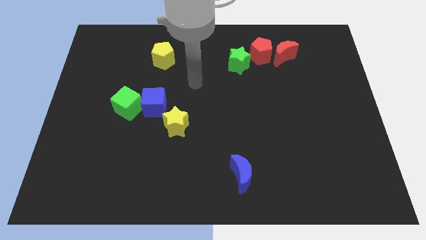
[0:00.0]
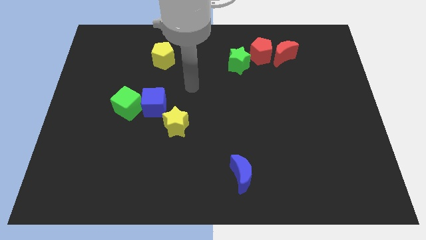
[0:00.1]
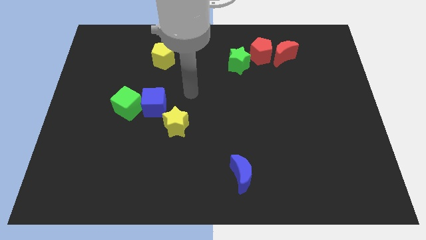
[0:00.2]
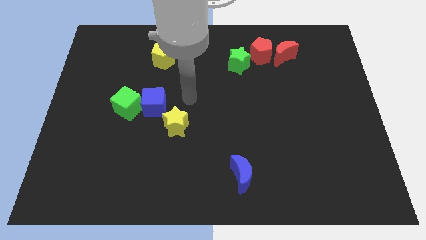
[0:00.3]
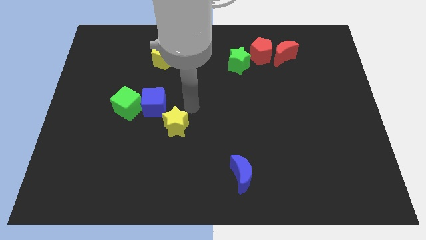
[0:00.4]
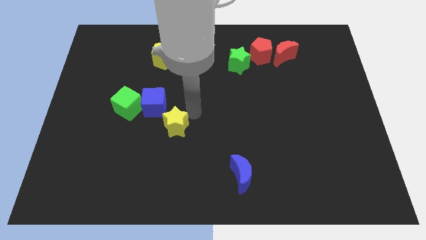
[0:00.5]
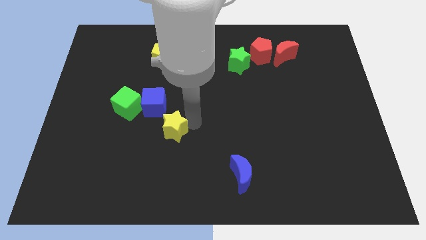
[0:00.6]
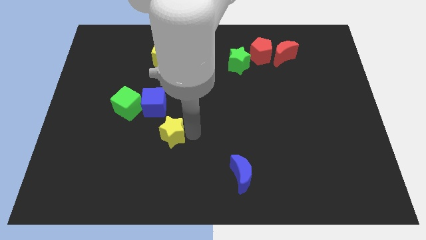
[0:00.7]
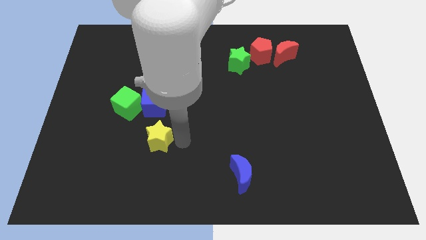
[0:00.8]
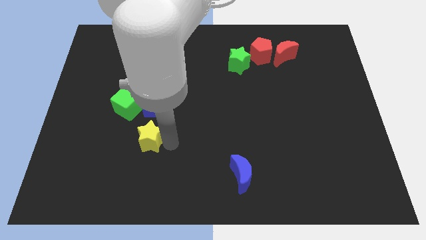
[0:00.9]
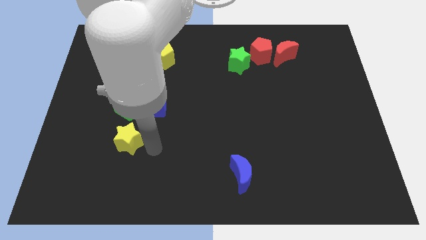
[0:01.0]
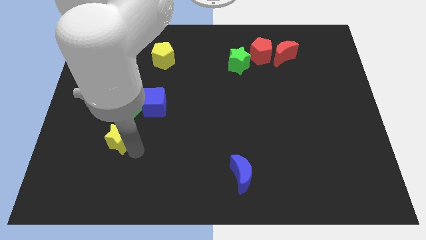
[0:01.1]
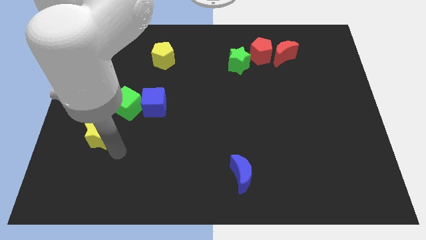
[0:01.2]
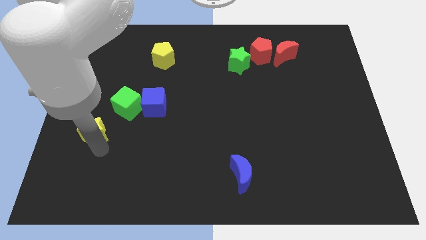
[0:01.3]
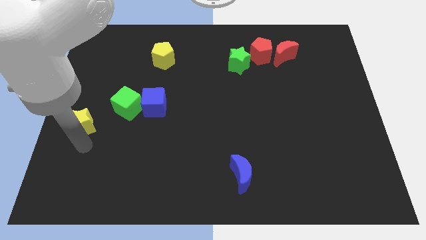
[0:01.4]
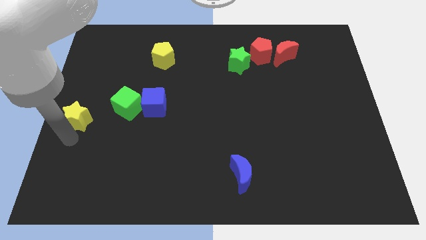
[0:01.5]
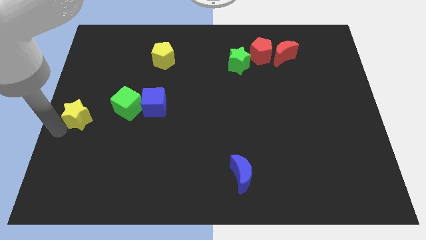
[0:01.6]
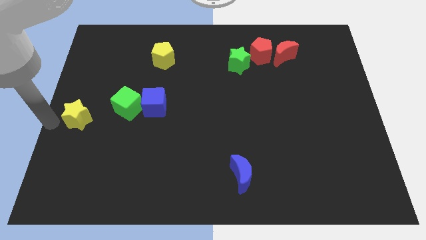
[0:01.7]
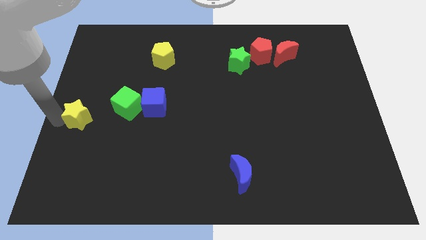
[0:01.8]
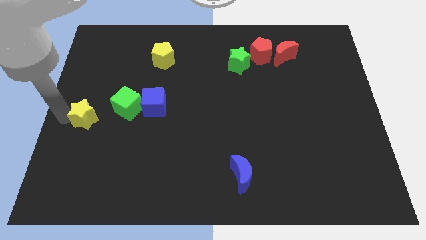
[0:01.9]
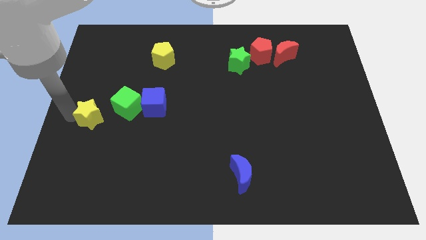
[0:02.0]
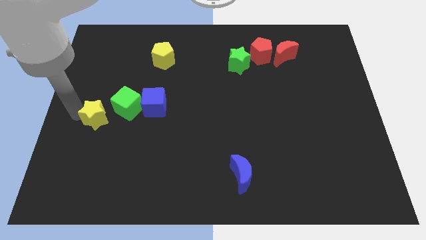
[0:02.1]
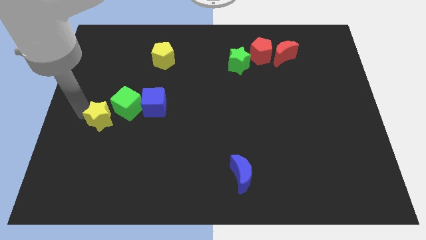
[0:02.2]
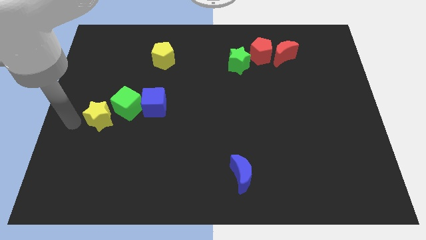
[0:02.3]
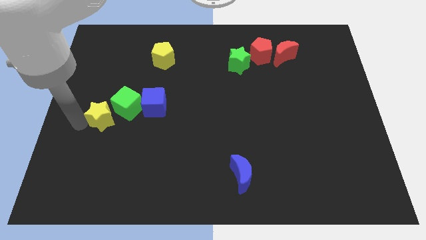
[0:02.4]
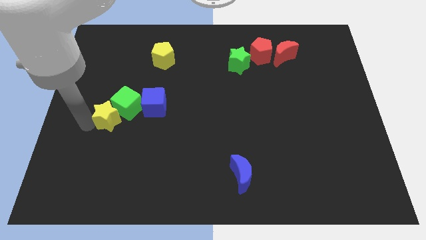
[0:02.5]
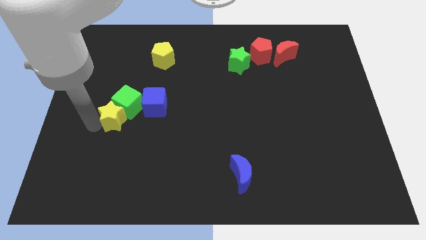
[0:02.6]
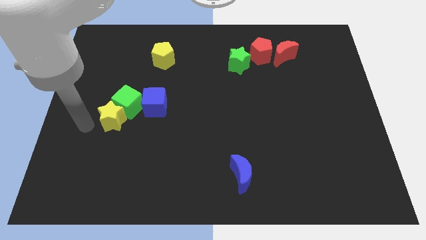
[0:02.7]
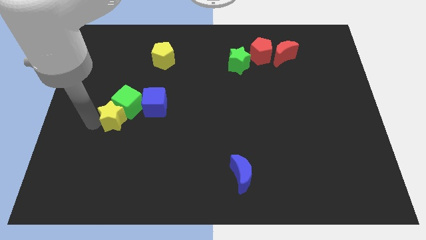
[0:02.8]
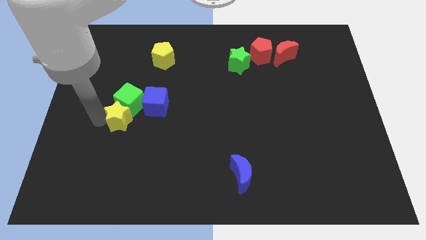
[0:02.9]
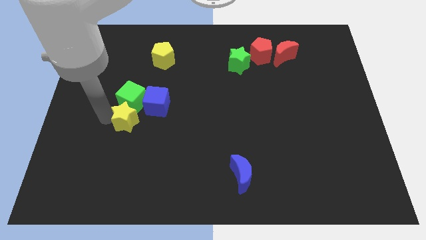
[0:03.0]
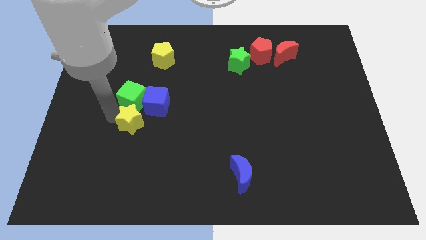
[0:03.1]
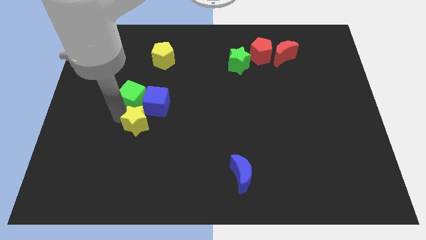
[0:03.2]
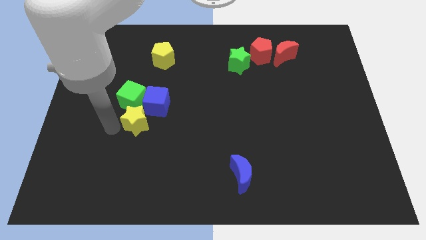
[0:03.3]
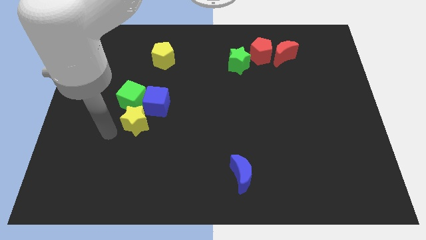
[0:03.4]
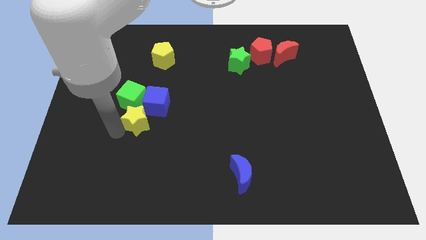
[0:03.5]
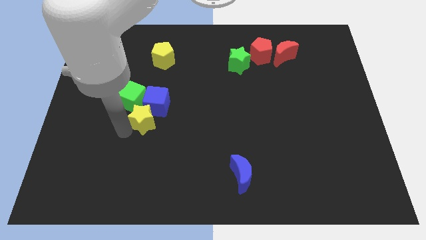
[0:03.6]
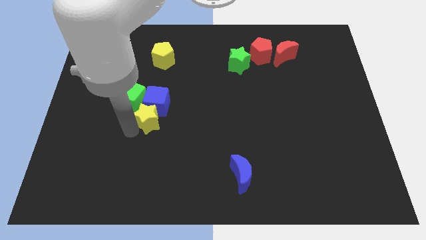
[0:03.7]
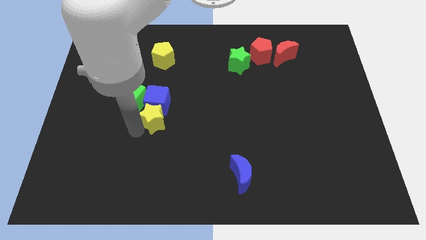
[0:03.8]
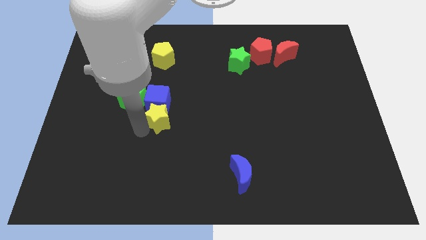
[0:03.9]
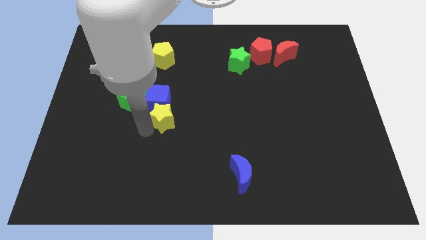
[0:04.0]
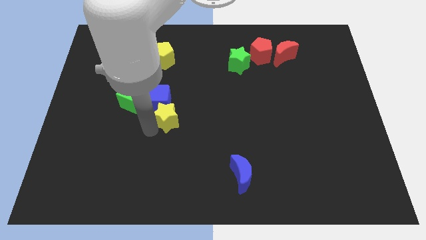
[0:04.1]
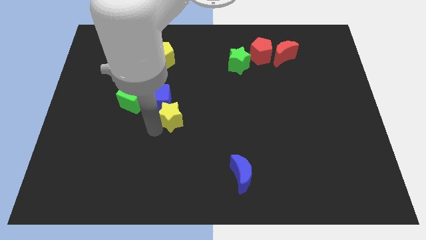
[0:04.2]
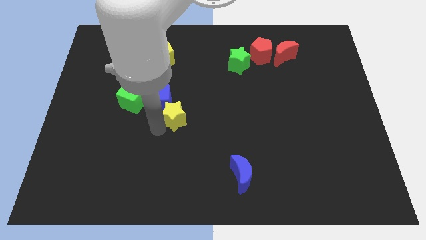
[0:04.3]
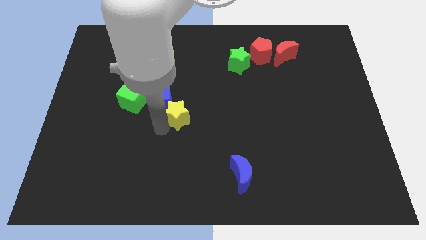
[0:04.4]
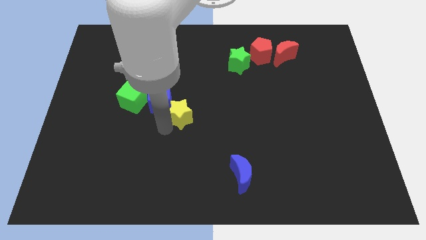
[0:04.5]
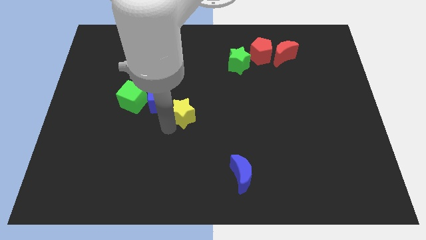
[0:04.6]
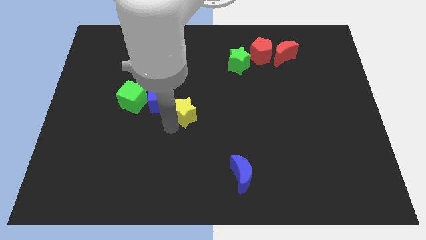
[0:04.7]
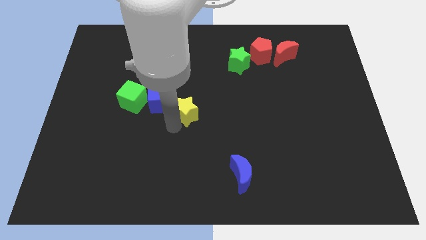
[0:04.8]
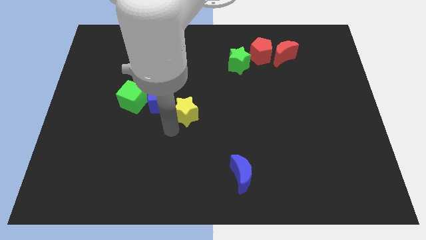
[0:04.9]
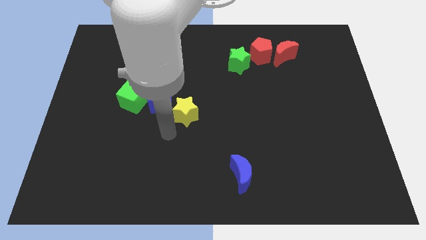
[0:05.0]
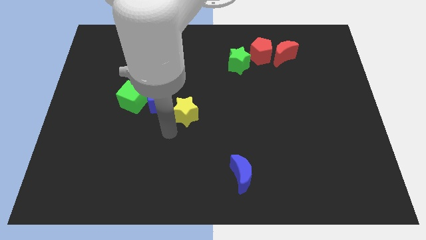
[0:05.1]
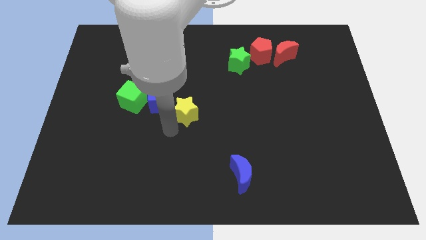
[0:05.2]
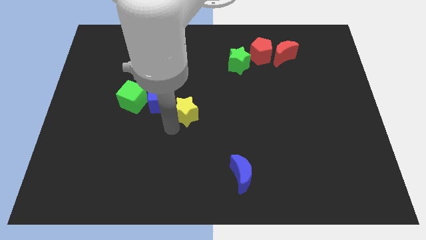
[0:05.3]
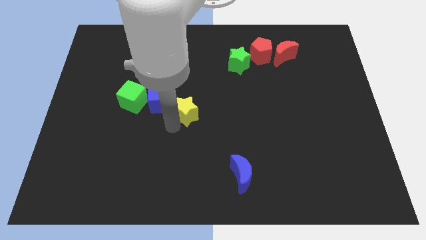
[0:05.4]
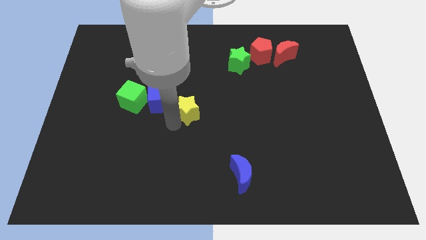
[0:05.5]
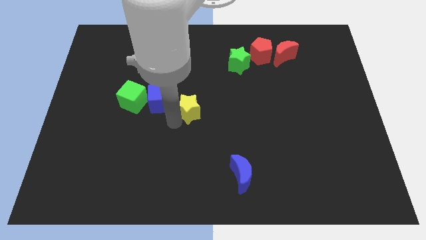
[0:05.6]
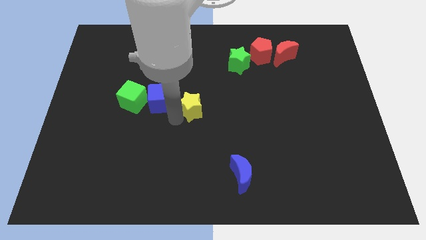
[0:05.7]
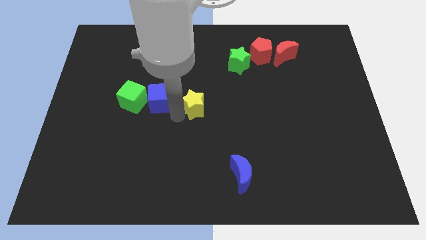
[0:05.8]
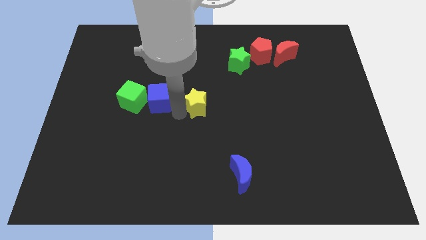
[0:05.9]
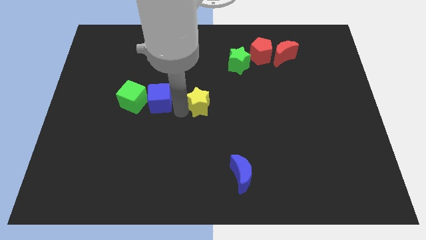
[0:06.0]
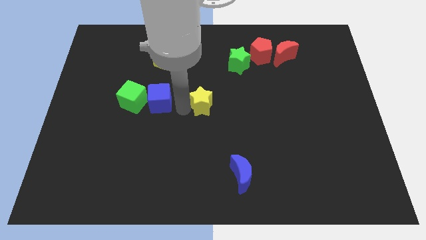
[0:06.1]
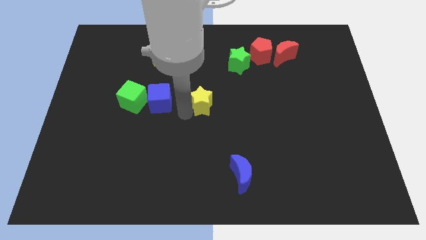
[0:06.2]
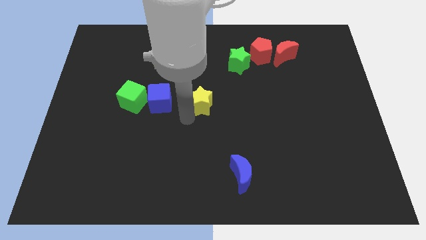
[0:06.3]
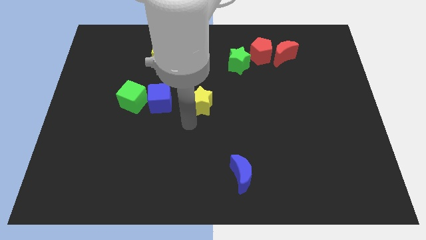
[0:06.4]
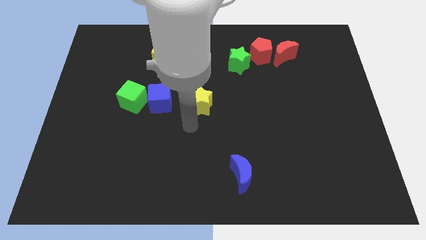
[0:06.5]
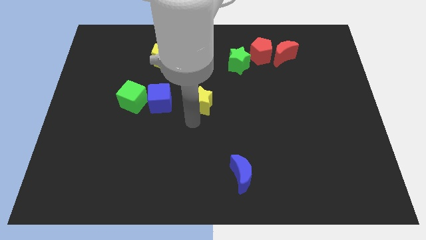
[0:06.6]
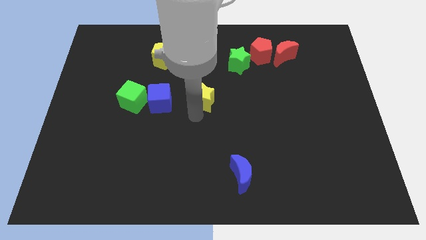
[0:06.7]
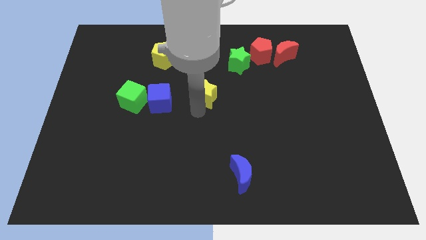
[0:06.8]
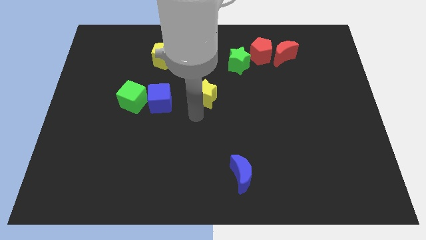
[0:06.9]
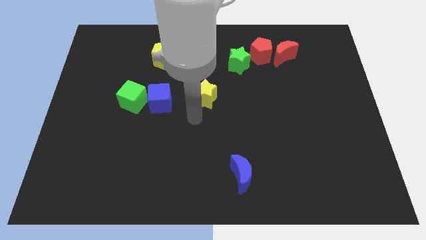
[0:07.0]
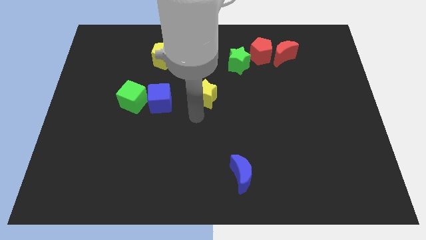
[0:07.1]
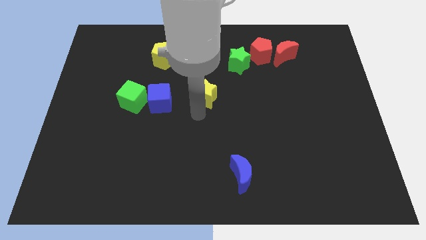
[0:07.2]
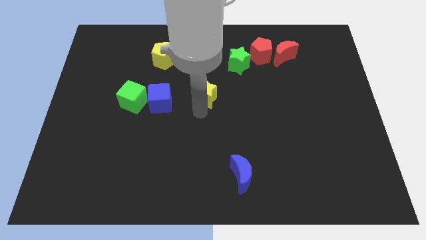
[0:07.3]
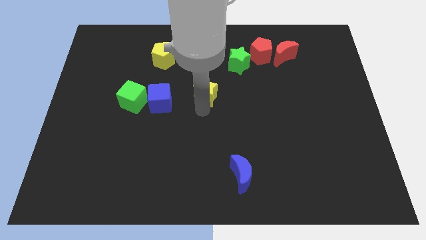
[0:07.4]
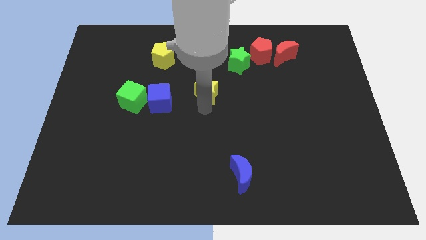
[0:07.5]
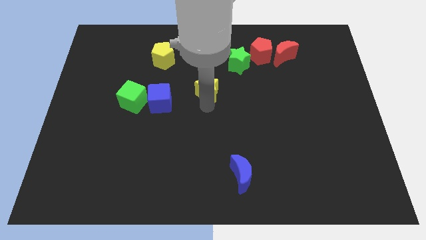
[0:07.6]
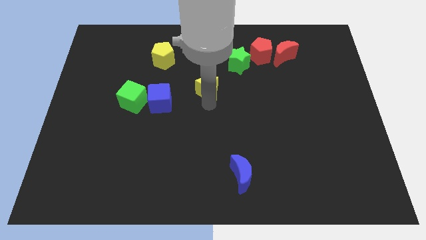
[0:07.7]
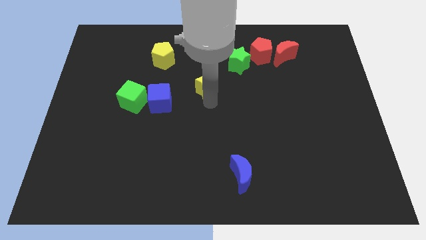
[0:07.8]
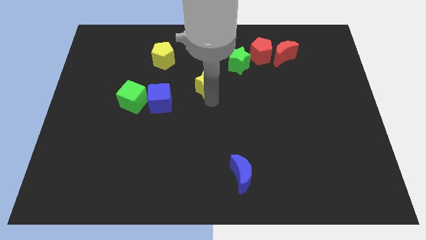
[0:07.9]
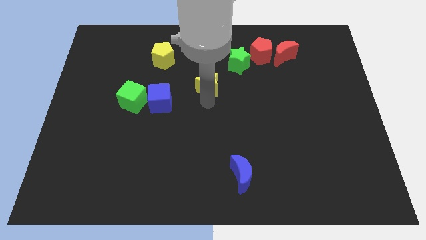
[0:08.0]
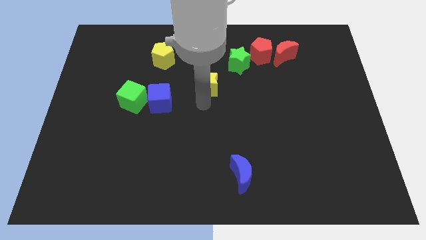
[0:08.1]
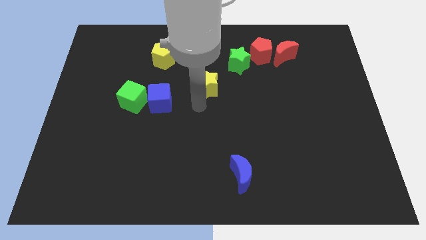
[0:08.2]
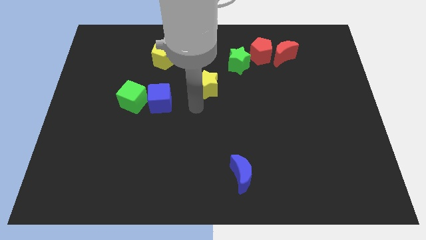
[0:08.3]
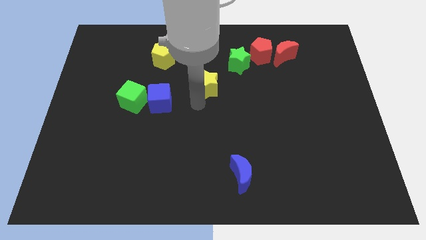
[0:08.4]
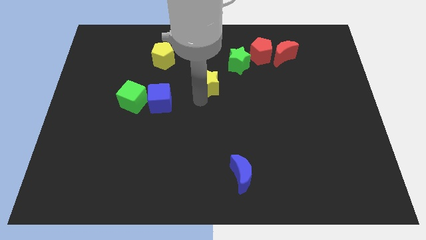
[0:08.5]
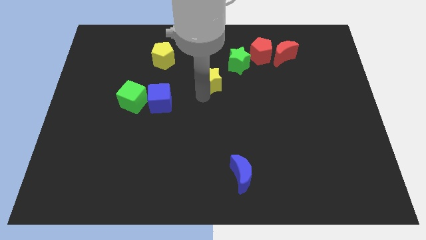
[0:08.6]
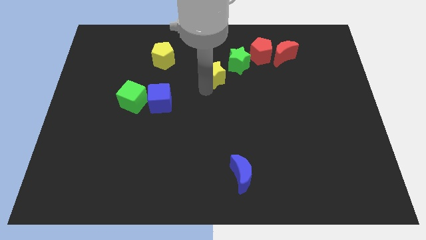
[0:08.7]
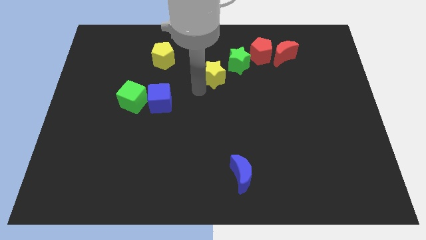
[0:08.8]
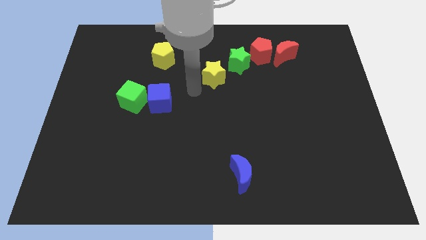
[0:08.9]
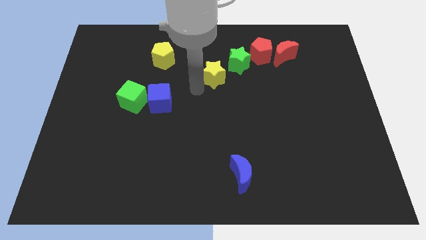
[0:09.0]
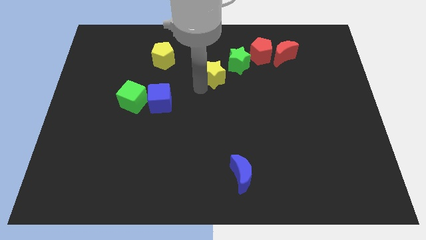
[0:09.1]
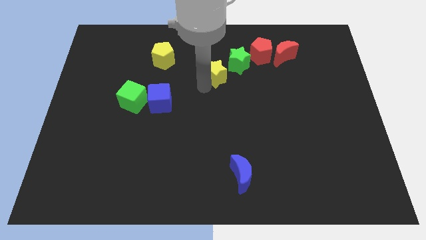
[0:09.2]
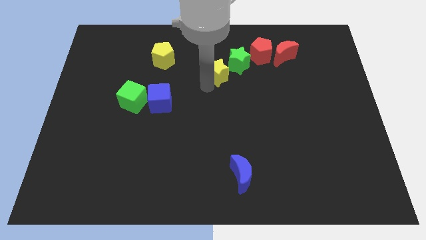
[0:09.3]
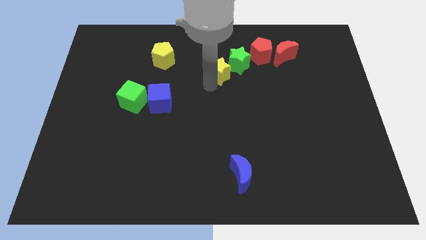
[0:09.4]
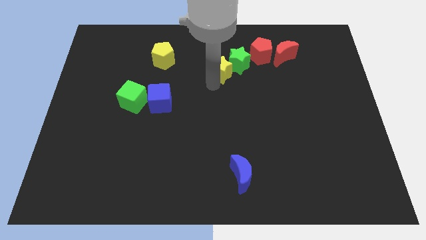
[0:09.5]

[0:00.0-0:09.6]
slide the yellow star to the green star
